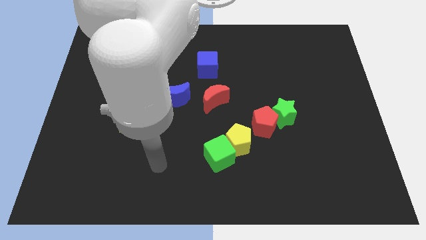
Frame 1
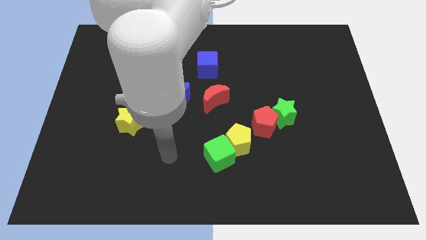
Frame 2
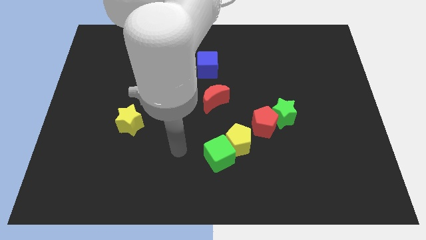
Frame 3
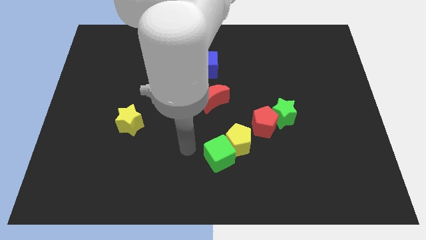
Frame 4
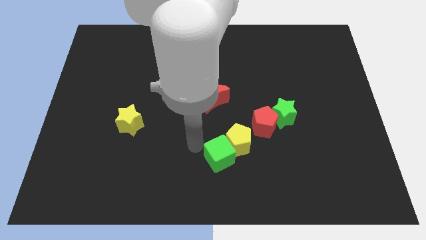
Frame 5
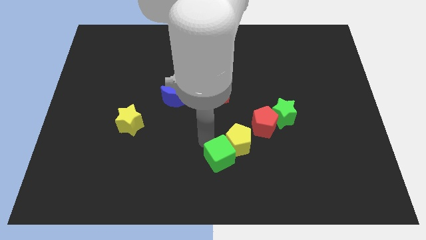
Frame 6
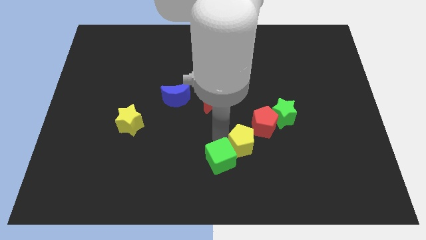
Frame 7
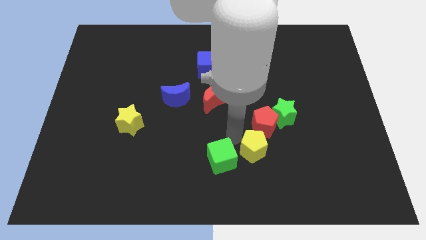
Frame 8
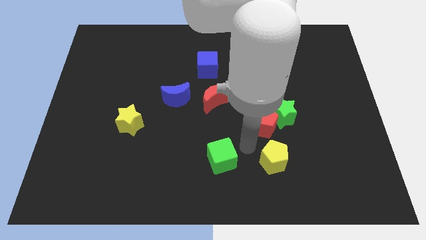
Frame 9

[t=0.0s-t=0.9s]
pull the green cube apart from the yellow pentagon

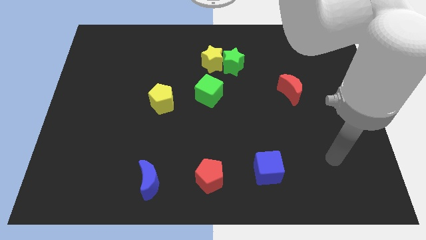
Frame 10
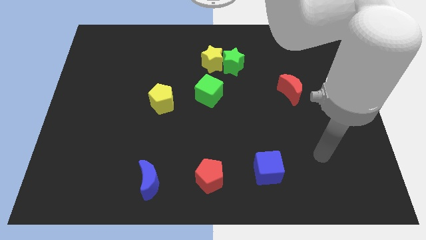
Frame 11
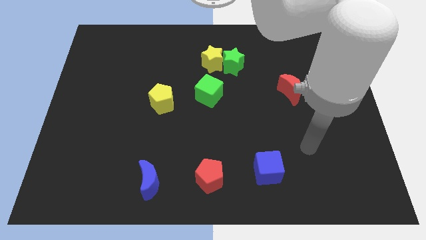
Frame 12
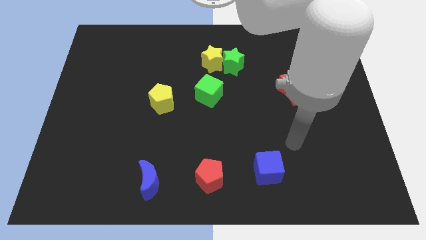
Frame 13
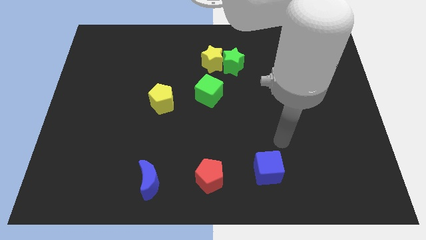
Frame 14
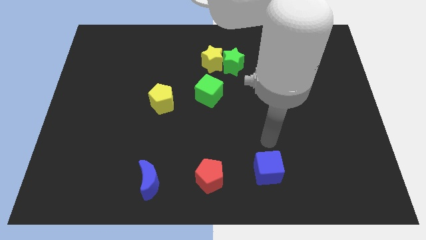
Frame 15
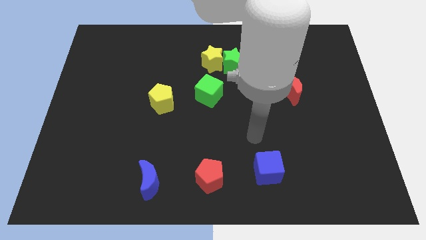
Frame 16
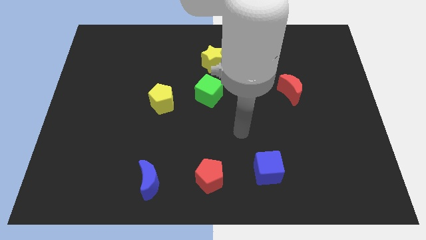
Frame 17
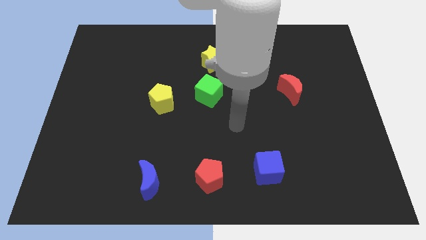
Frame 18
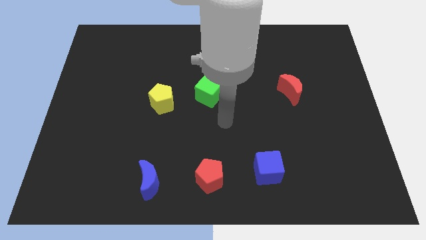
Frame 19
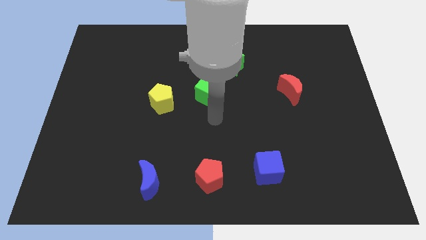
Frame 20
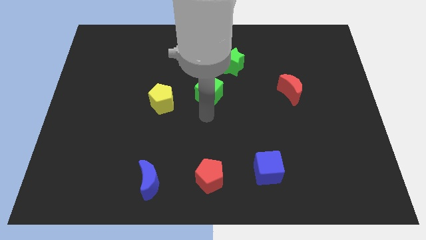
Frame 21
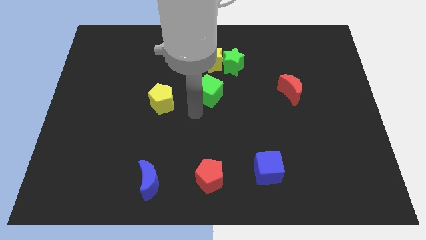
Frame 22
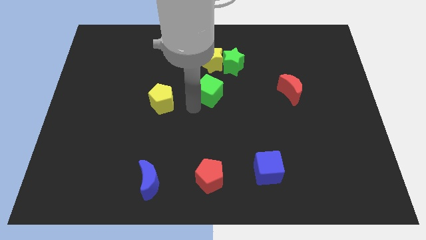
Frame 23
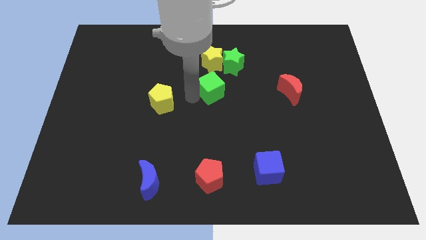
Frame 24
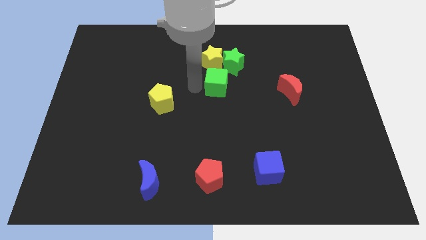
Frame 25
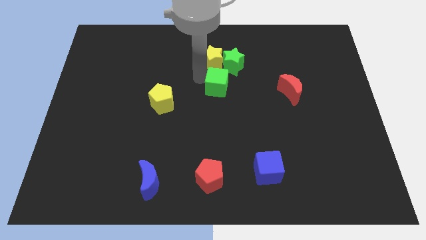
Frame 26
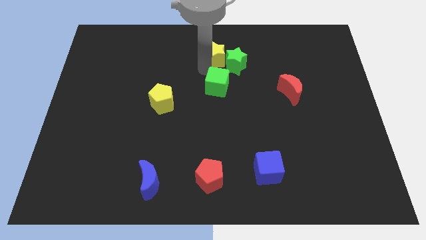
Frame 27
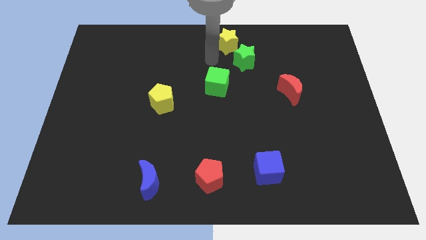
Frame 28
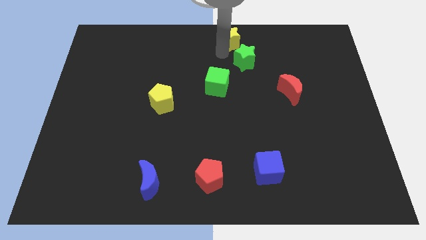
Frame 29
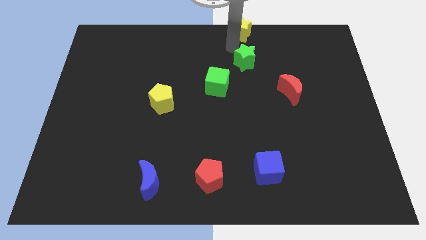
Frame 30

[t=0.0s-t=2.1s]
move the green star away from the yellow star

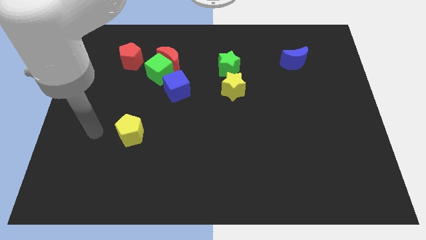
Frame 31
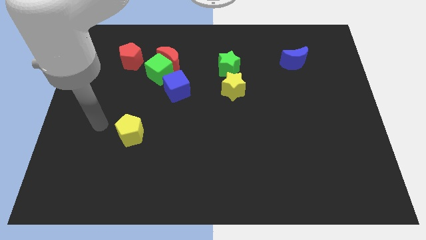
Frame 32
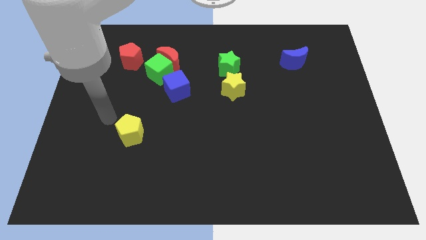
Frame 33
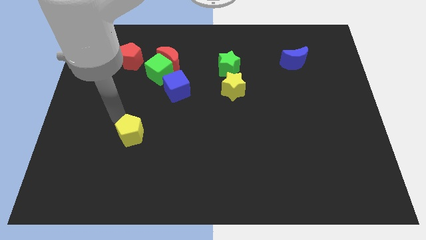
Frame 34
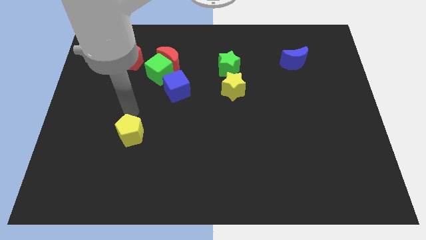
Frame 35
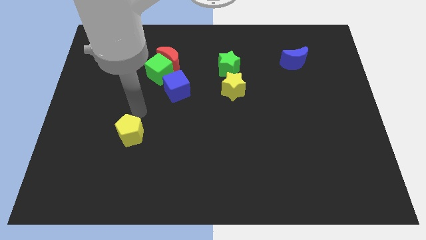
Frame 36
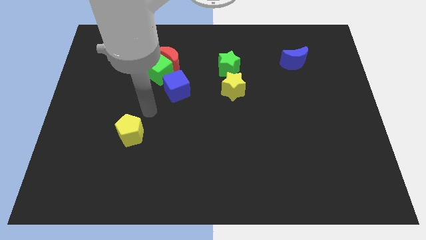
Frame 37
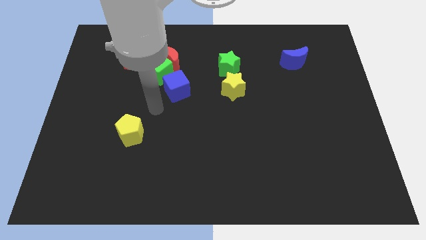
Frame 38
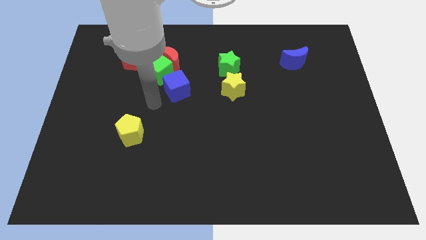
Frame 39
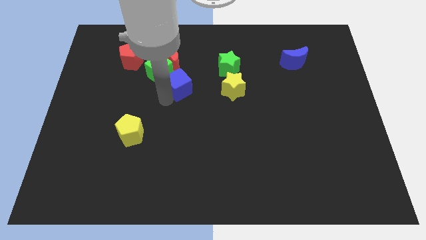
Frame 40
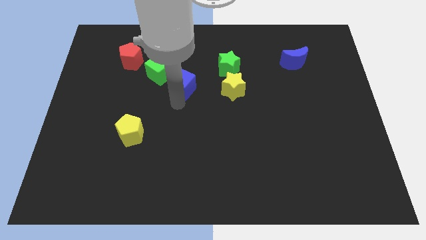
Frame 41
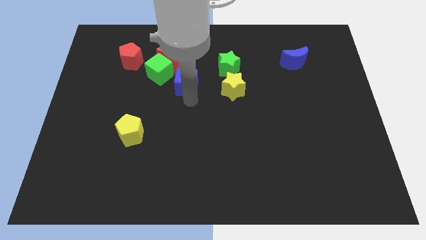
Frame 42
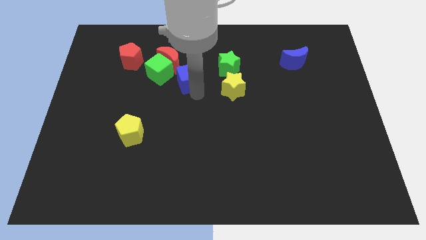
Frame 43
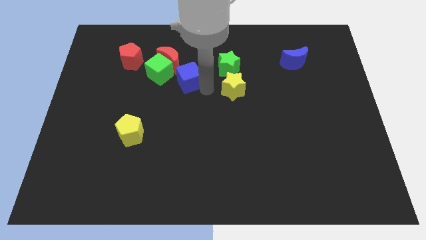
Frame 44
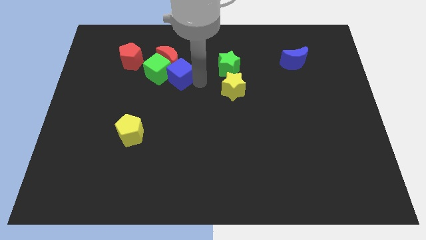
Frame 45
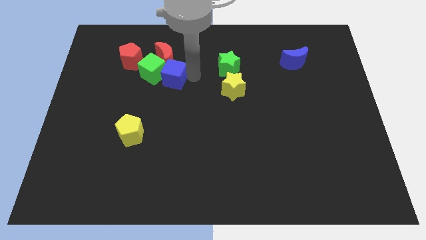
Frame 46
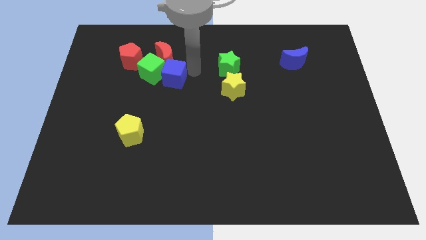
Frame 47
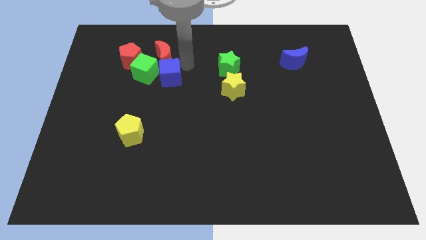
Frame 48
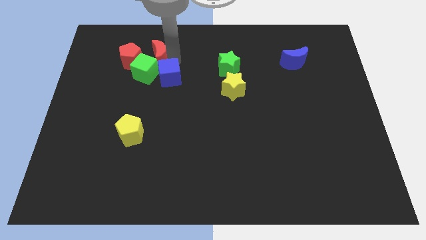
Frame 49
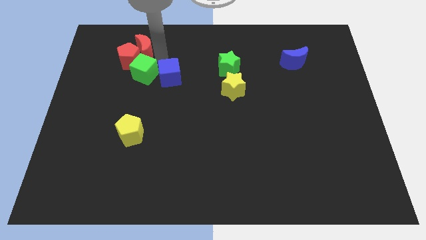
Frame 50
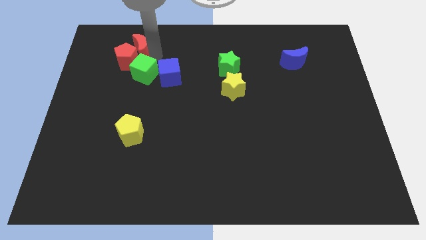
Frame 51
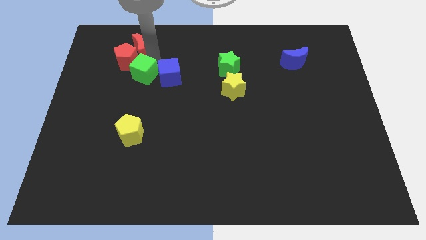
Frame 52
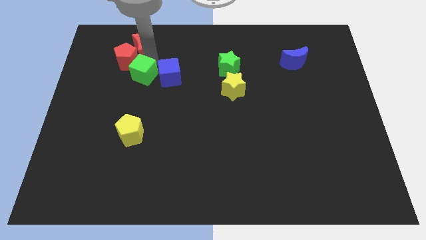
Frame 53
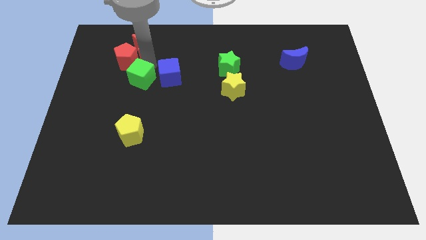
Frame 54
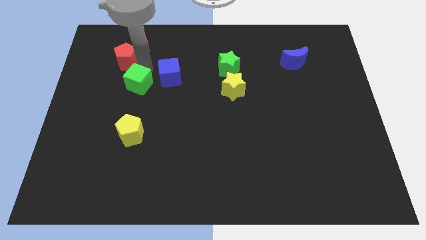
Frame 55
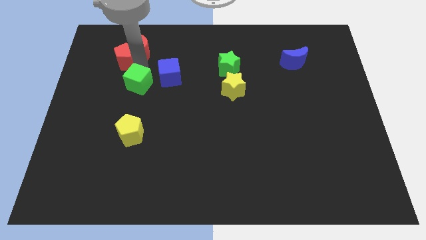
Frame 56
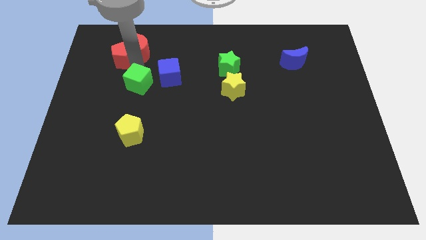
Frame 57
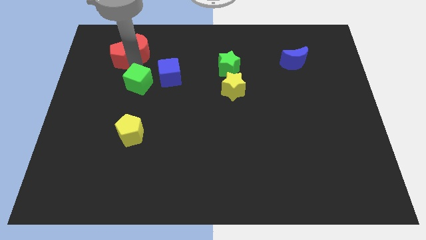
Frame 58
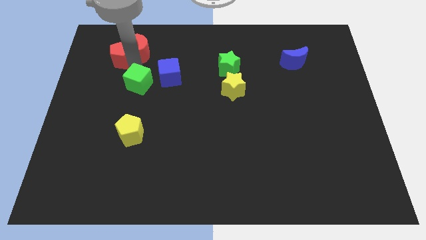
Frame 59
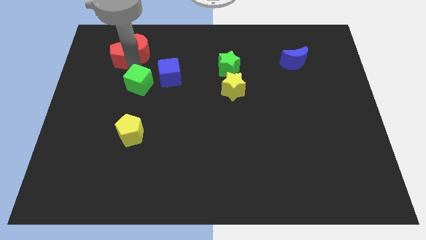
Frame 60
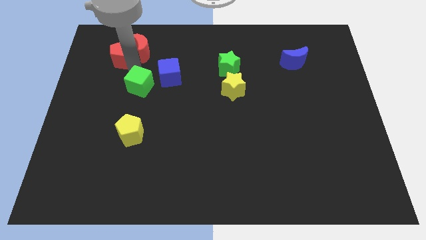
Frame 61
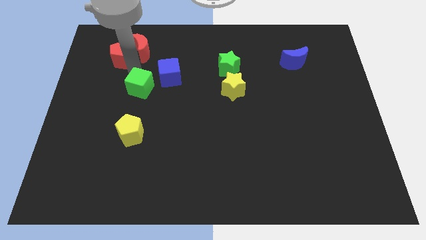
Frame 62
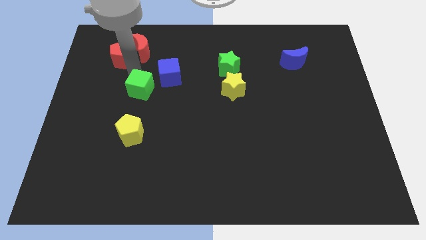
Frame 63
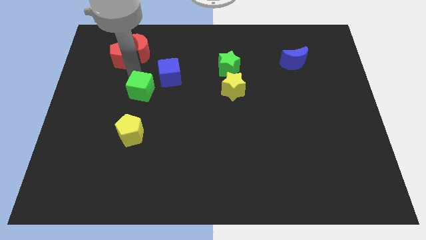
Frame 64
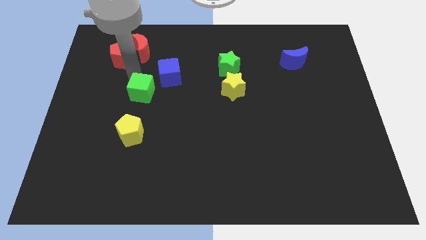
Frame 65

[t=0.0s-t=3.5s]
pull the green cube apart from the group

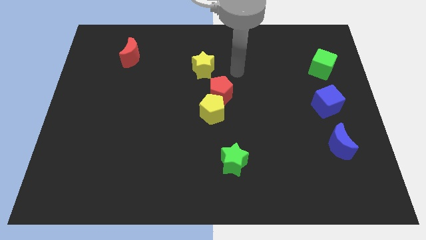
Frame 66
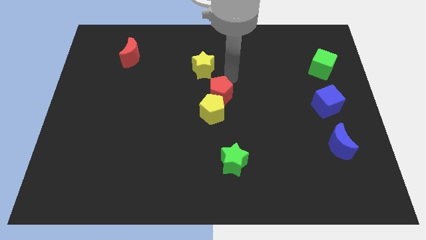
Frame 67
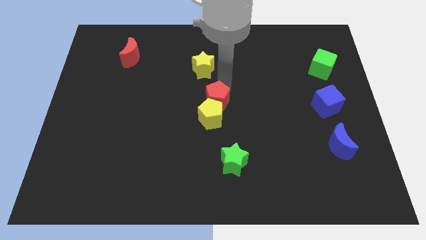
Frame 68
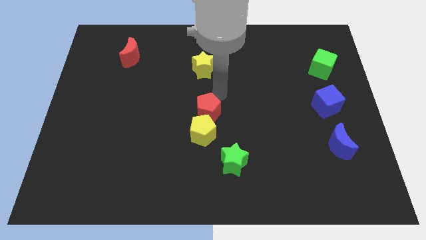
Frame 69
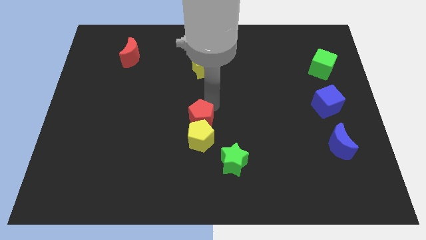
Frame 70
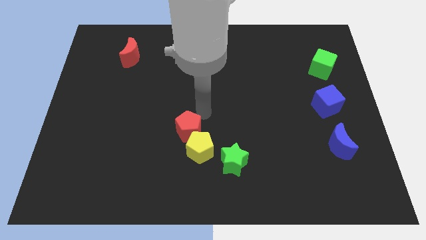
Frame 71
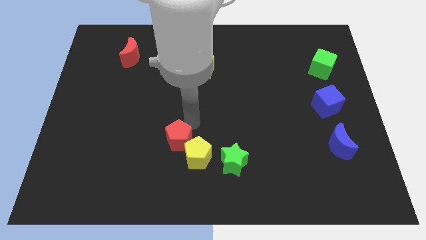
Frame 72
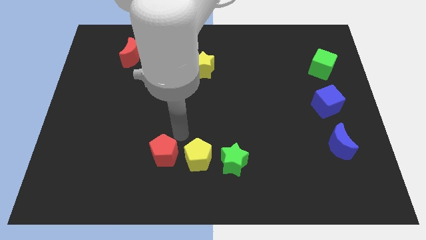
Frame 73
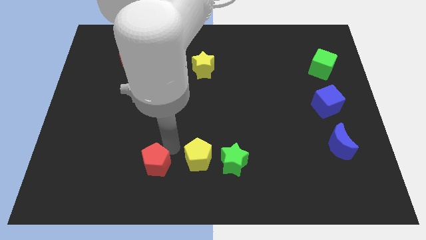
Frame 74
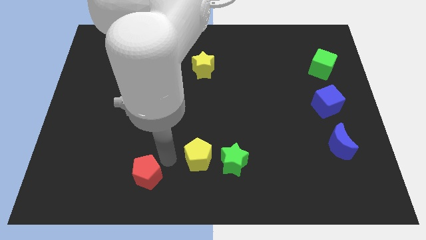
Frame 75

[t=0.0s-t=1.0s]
move the yellow pentagon away from the red pentagon

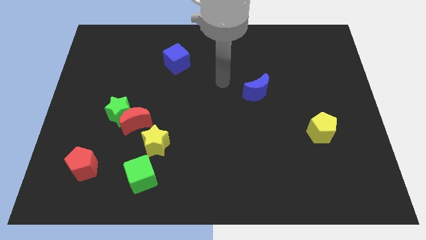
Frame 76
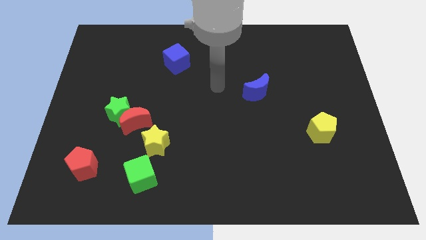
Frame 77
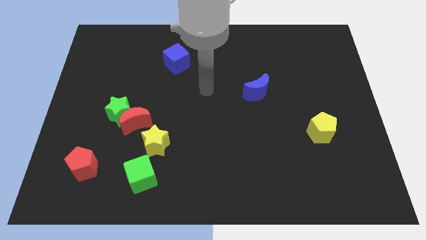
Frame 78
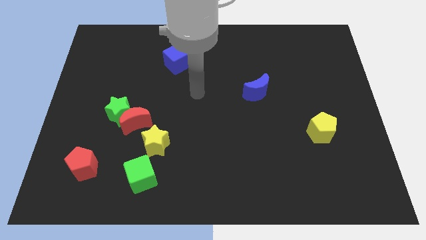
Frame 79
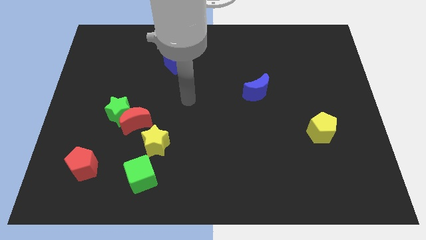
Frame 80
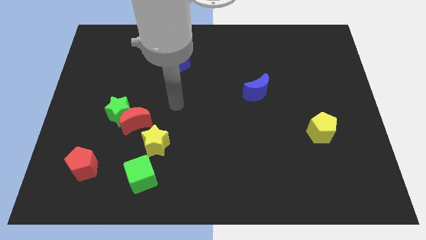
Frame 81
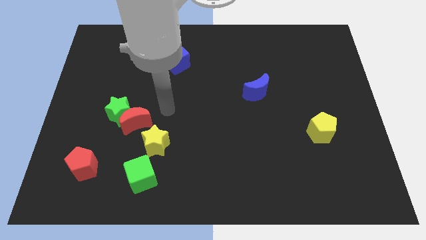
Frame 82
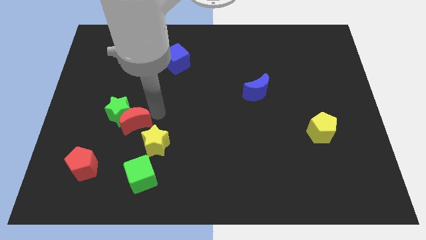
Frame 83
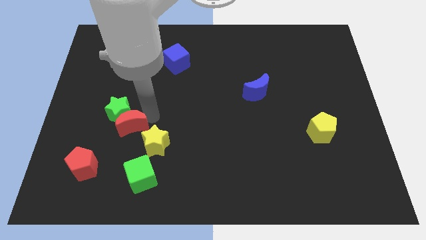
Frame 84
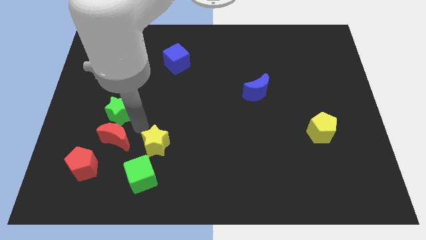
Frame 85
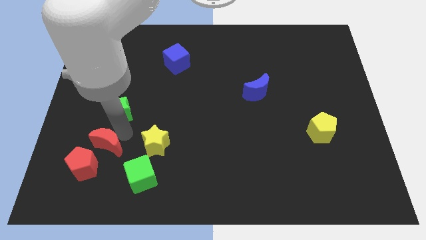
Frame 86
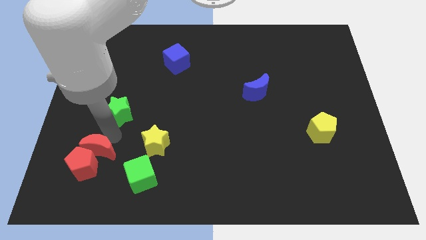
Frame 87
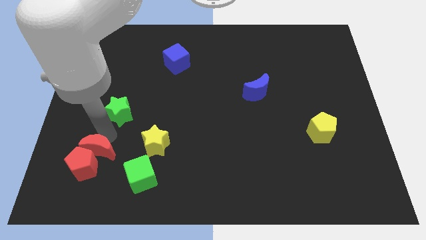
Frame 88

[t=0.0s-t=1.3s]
separate the green star from the red moon

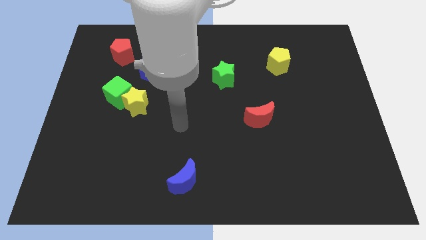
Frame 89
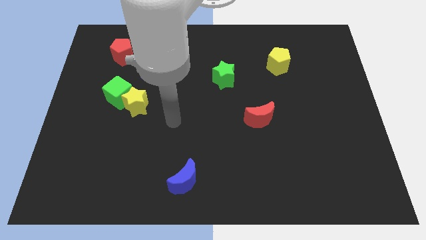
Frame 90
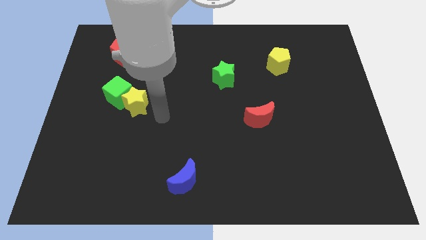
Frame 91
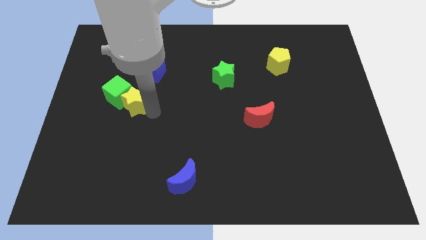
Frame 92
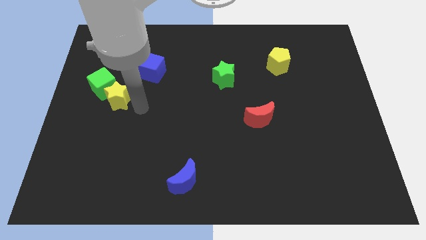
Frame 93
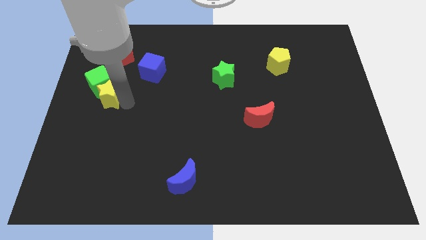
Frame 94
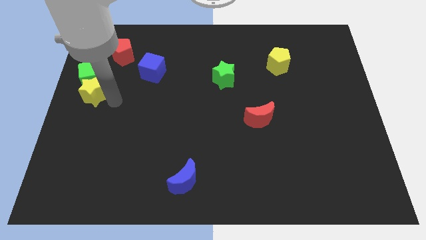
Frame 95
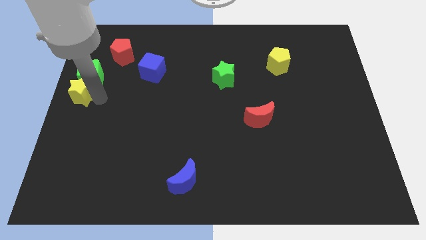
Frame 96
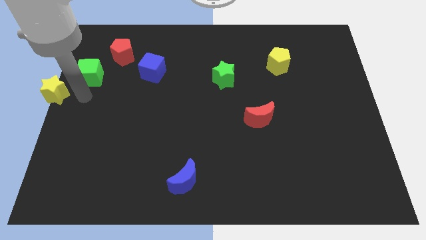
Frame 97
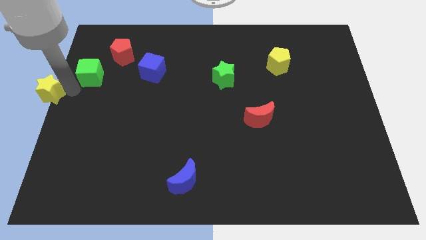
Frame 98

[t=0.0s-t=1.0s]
move the green cube away from the yellow star
